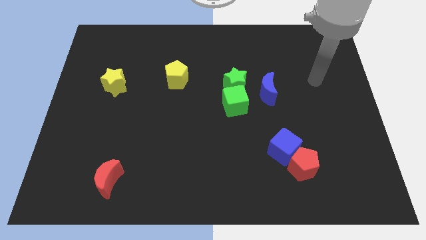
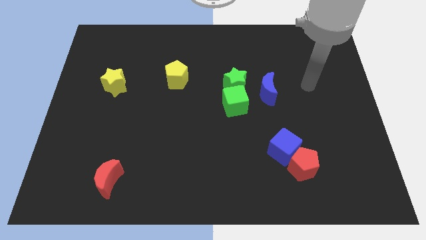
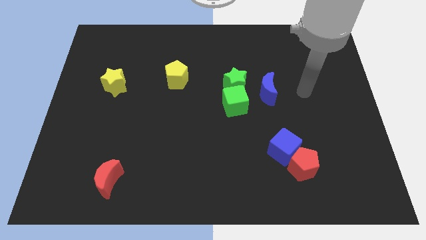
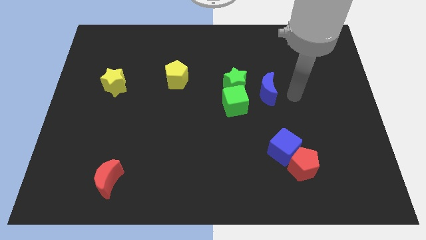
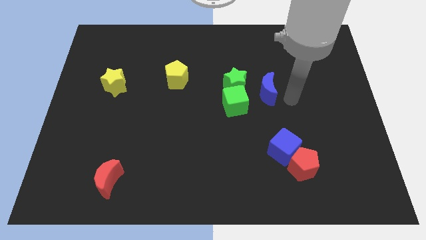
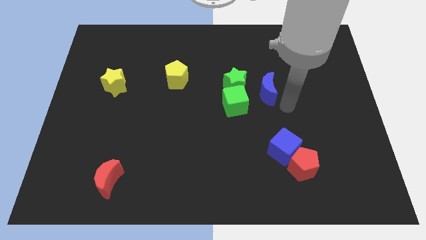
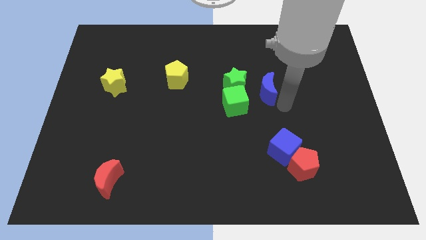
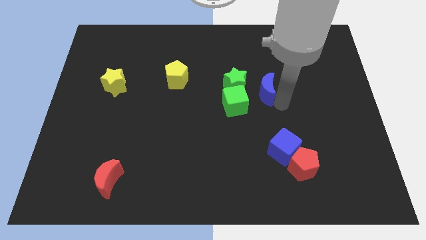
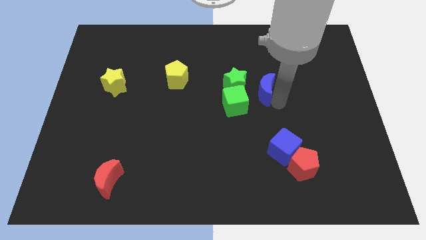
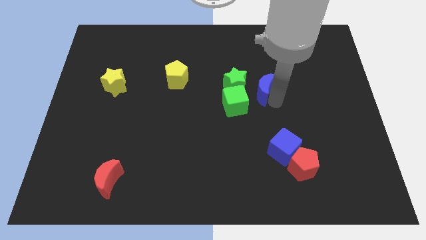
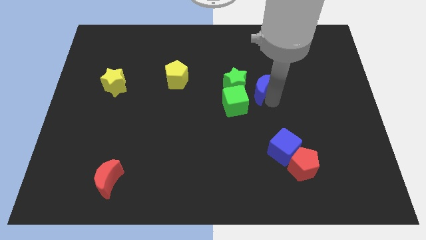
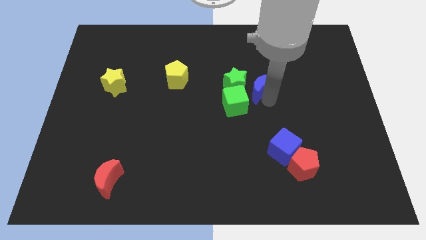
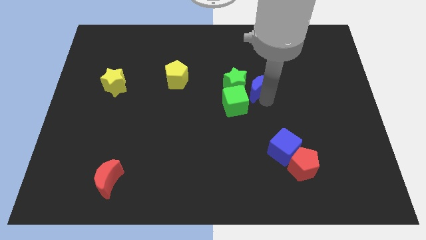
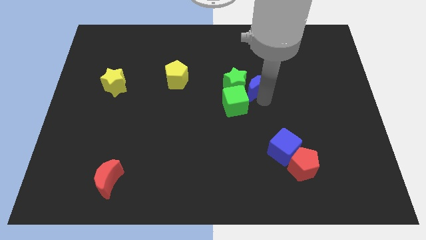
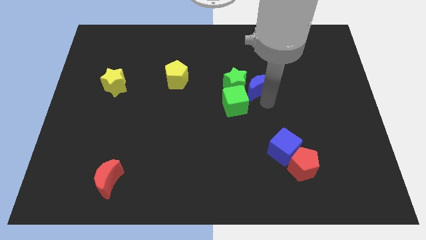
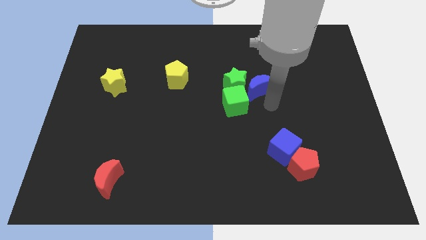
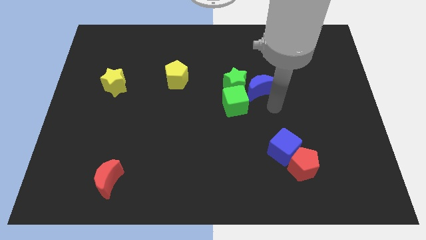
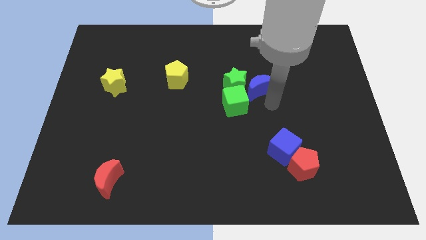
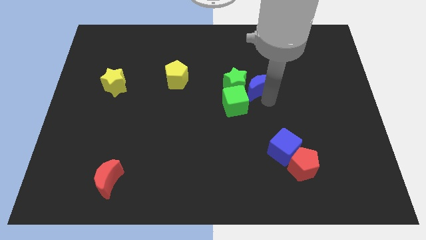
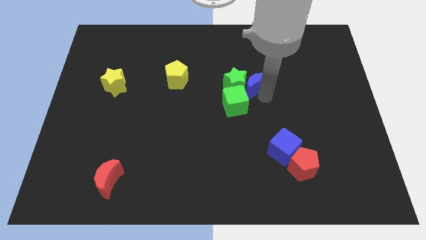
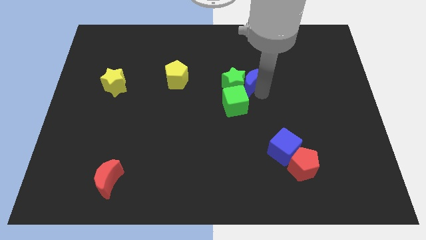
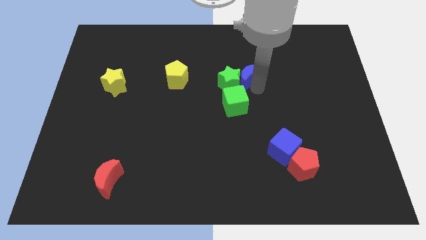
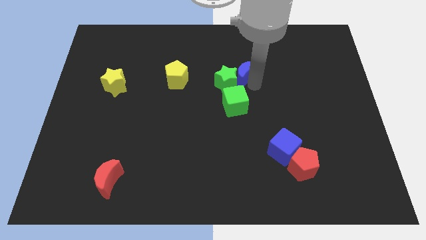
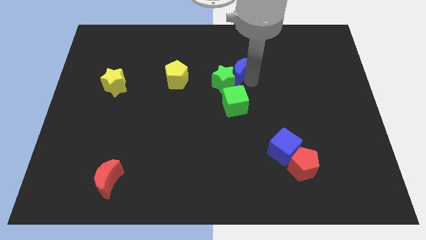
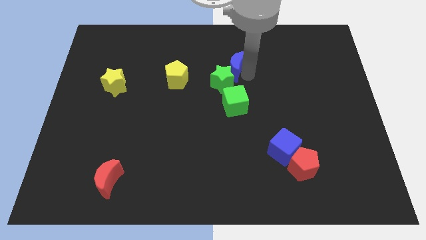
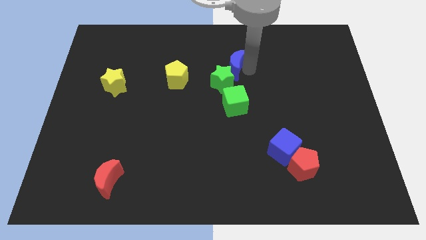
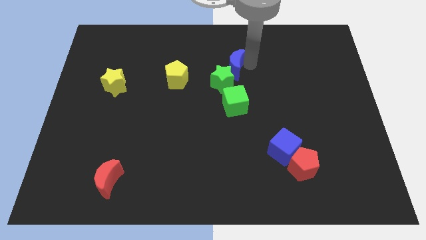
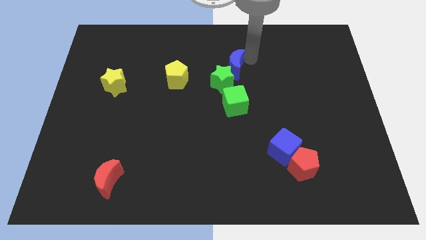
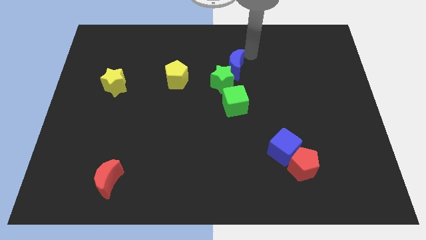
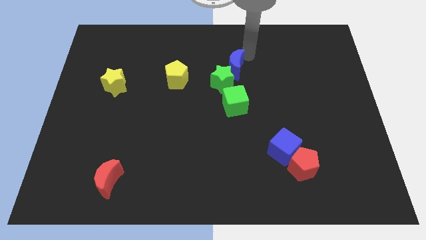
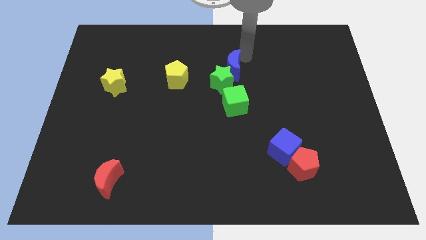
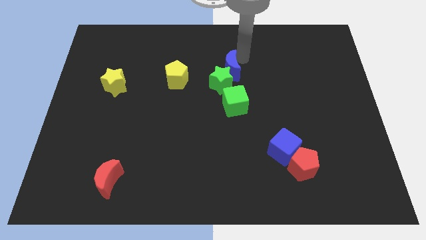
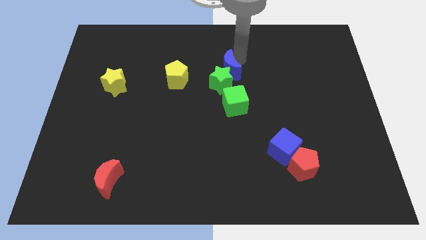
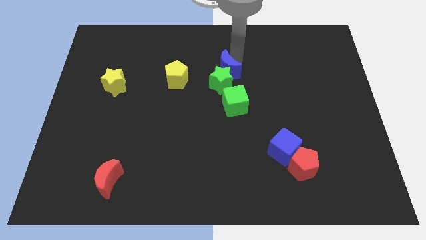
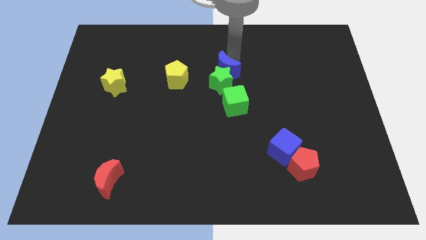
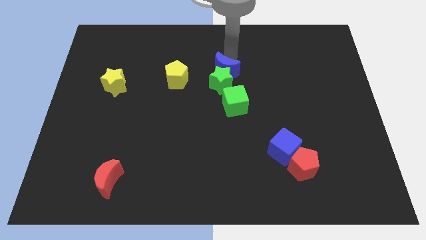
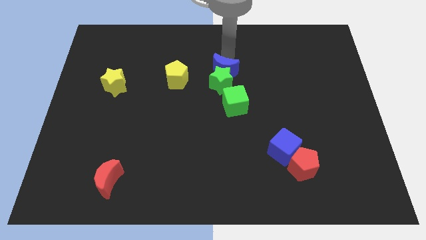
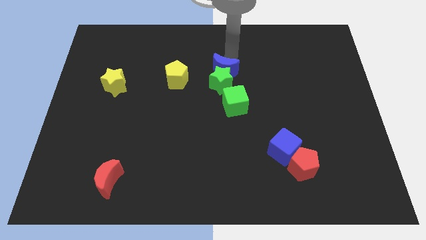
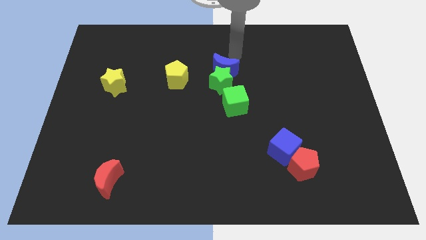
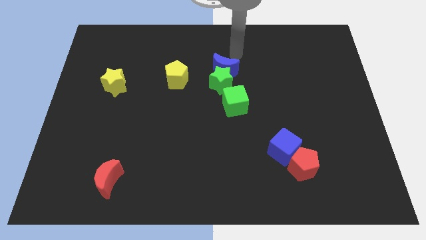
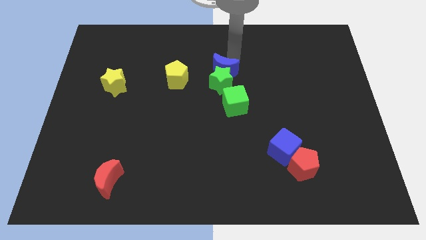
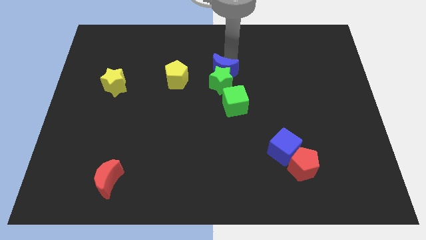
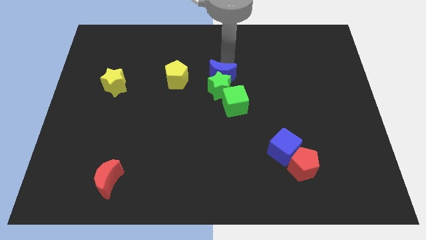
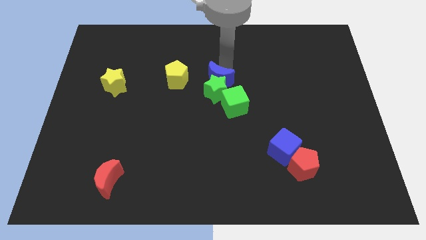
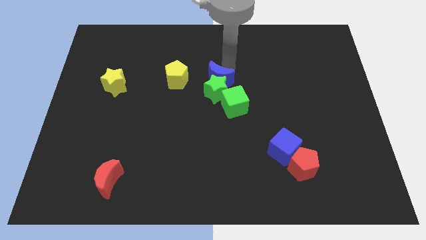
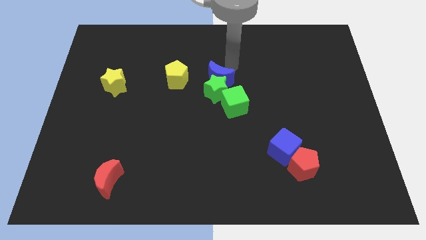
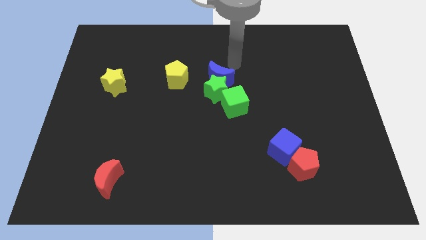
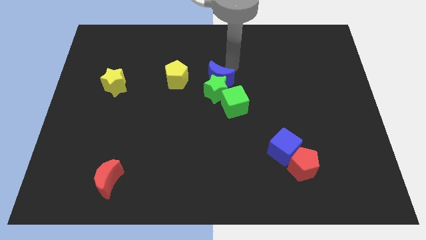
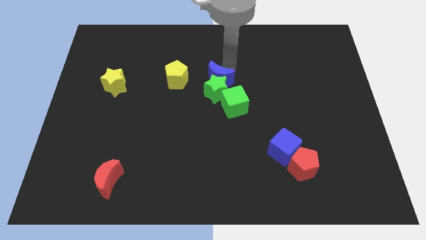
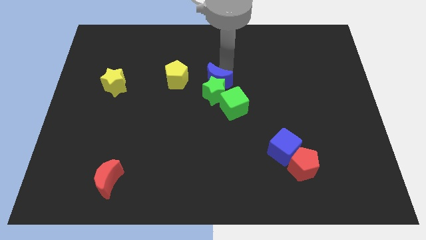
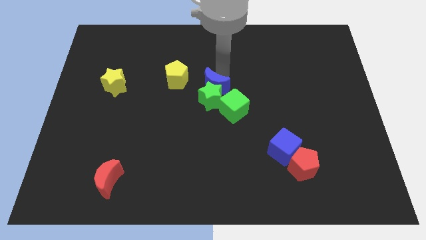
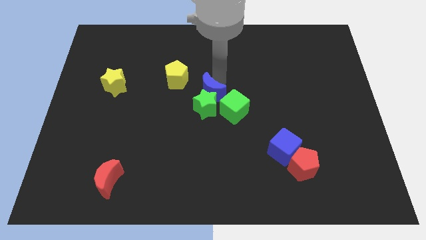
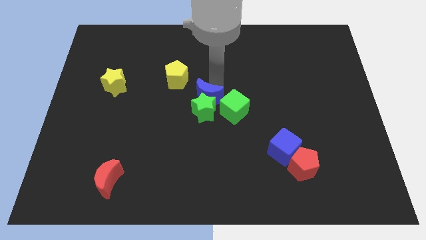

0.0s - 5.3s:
move the blue moon to the left side of the green cube

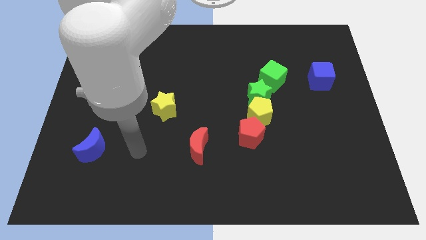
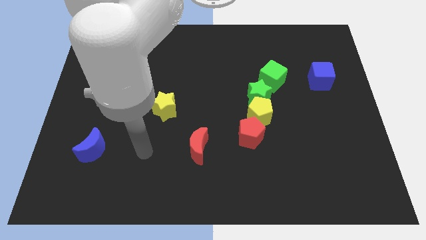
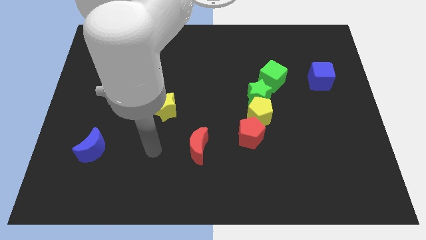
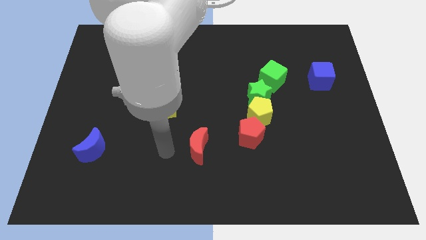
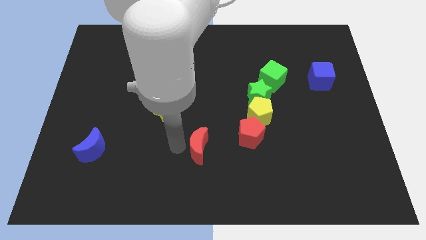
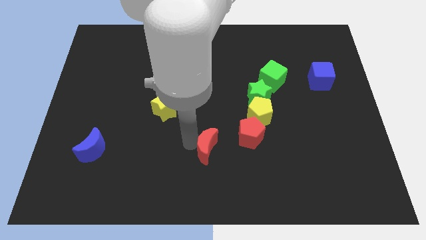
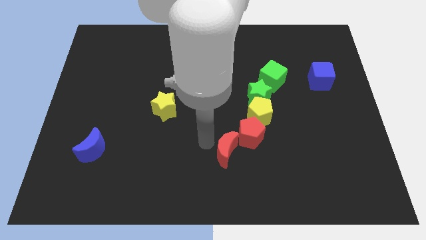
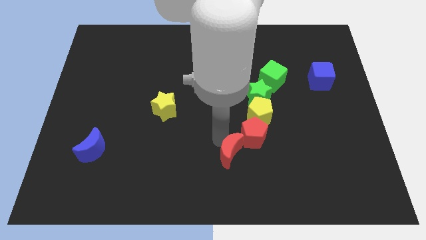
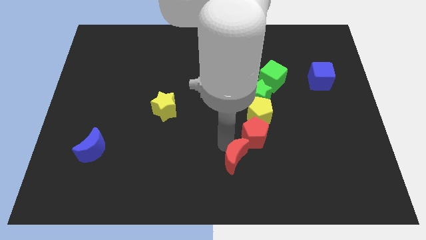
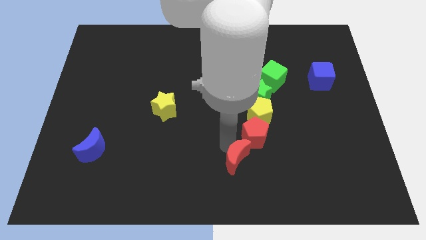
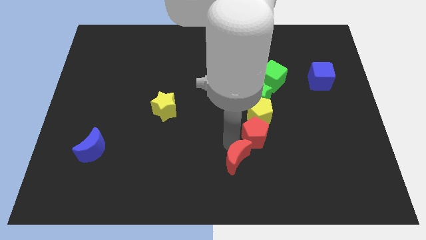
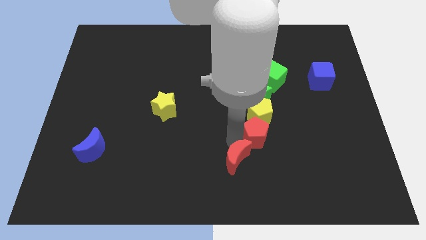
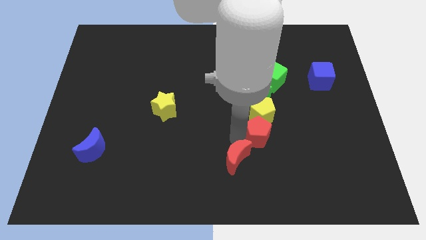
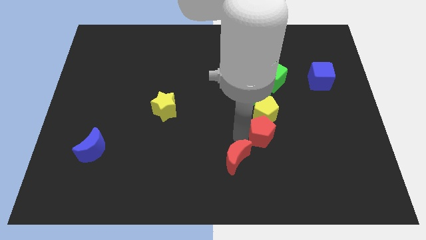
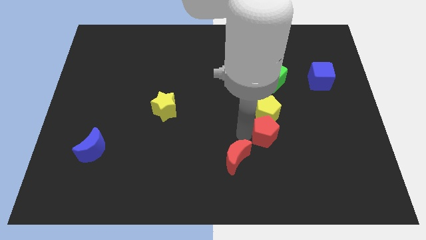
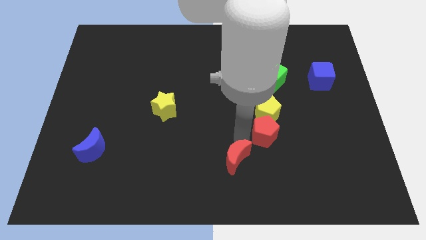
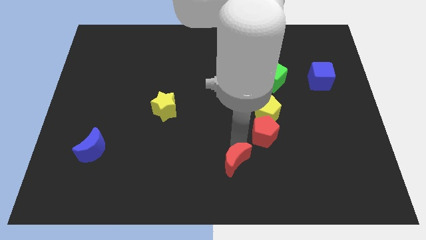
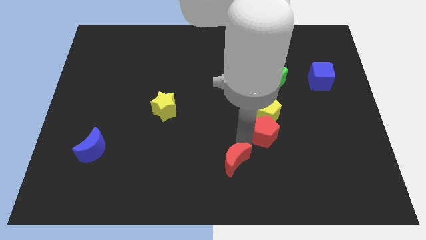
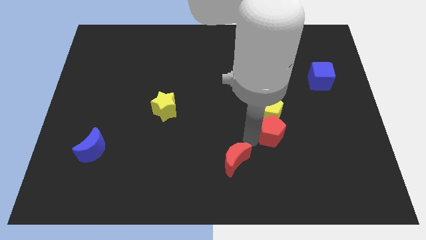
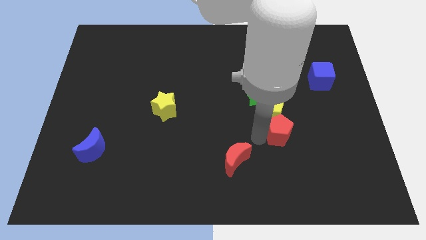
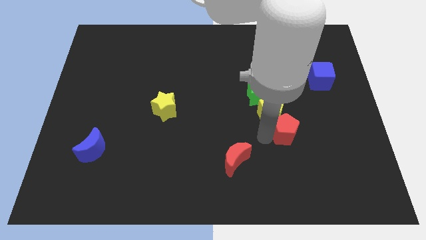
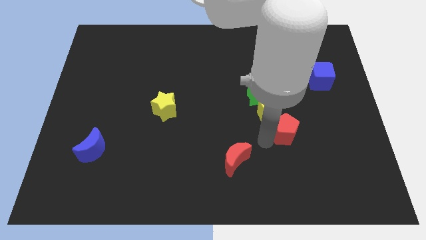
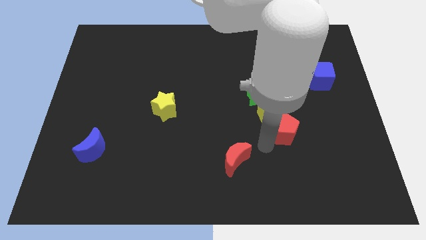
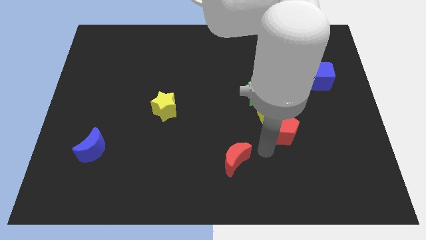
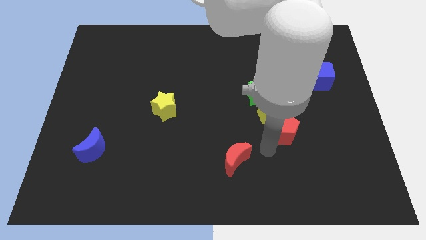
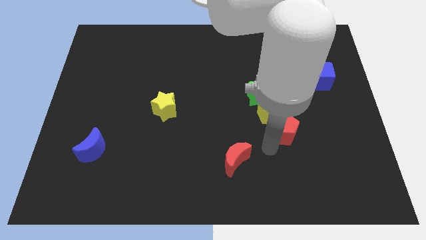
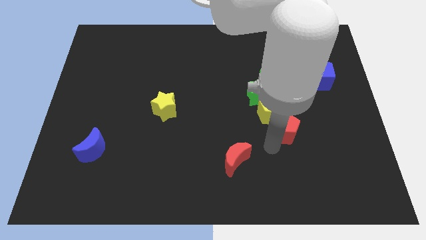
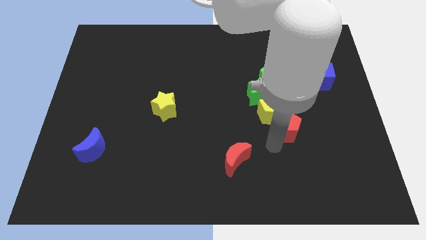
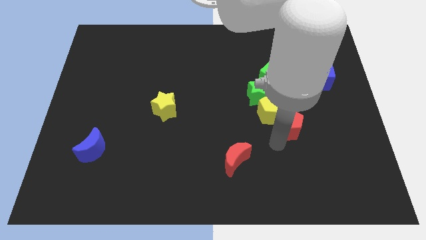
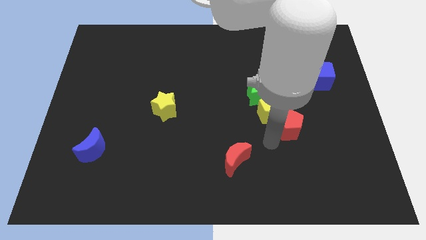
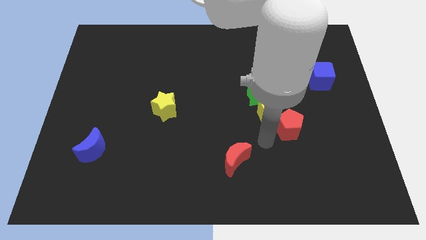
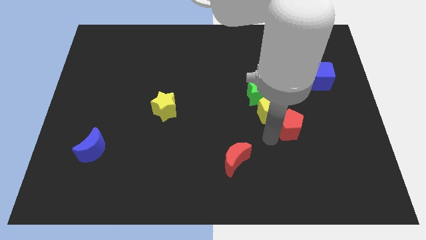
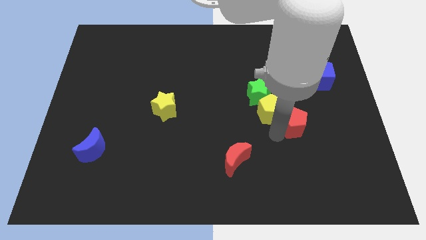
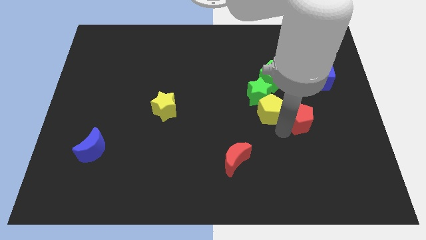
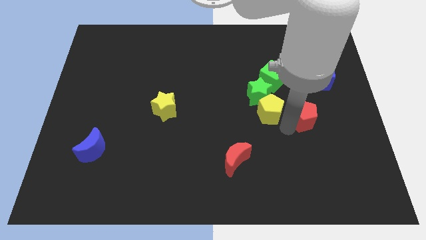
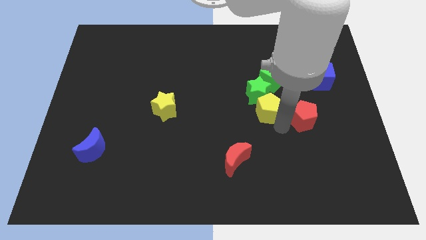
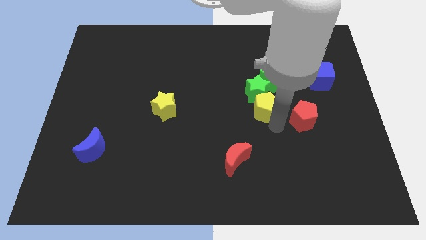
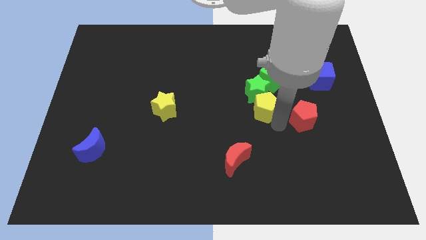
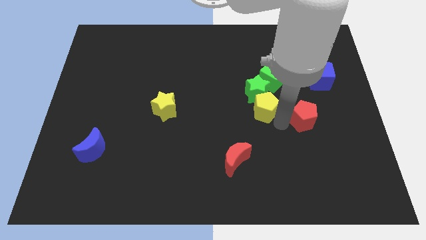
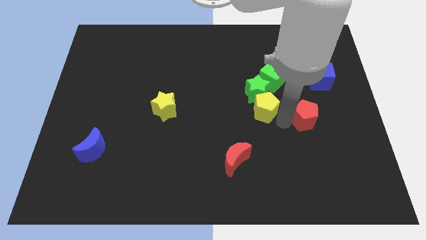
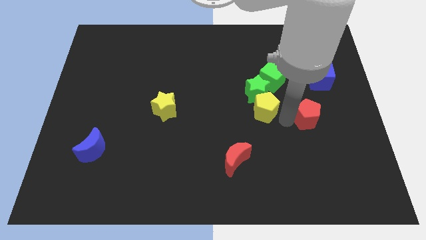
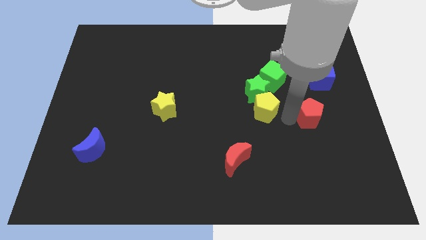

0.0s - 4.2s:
push the red pentagon to the bottom of the blue cube
